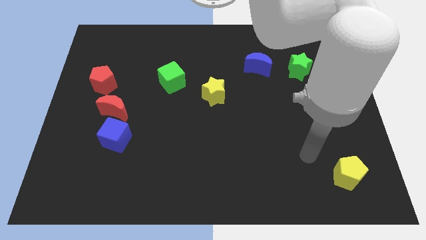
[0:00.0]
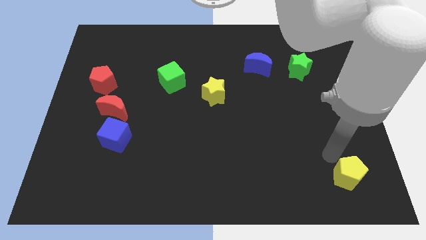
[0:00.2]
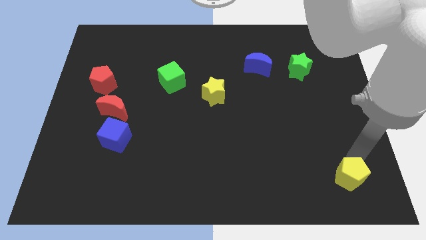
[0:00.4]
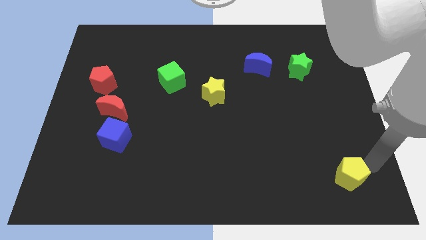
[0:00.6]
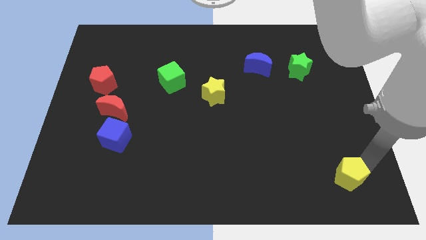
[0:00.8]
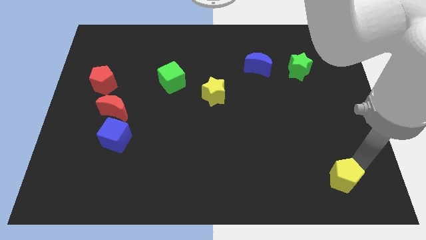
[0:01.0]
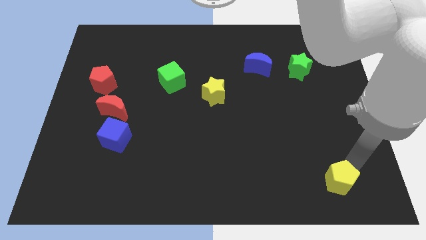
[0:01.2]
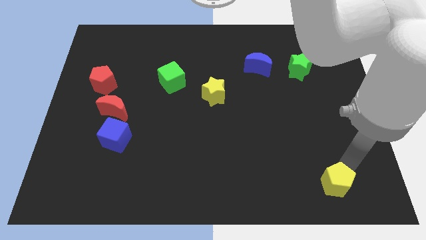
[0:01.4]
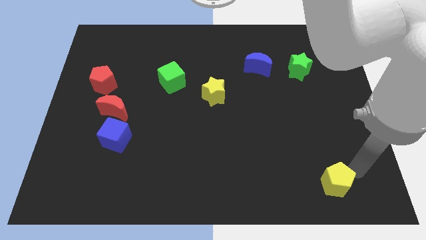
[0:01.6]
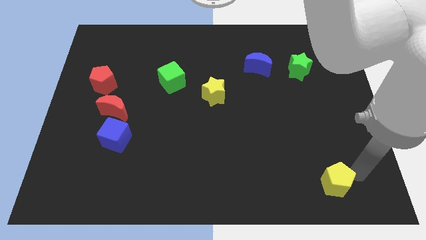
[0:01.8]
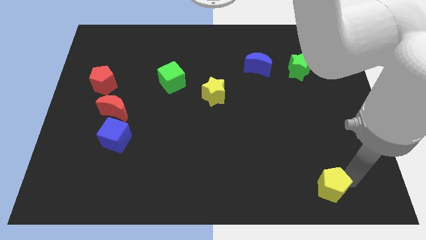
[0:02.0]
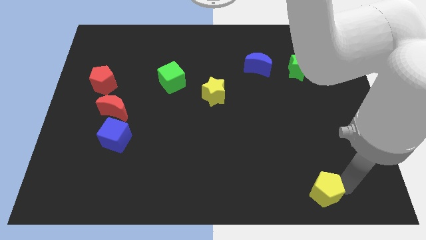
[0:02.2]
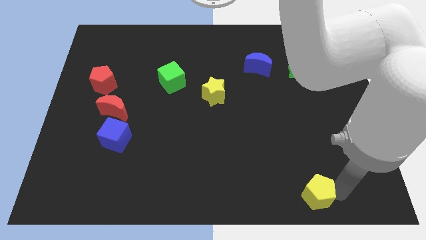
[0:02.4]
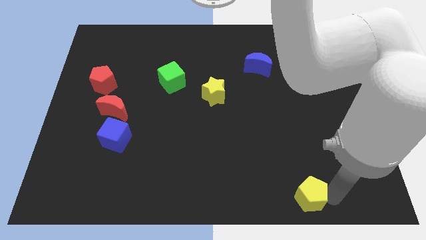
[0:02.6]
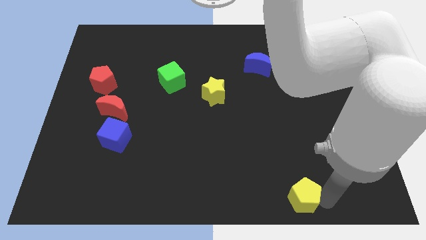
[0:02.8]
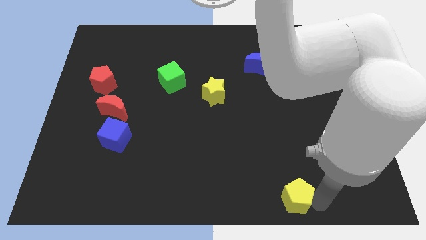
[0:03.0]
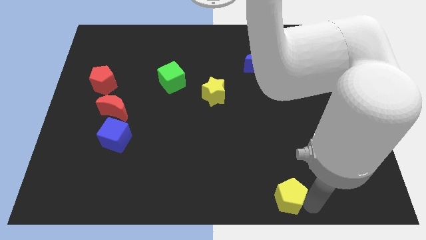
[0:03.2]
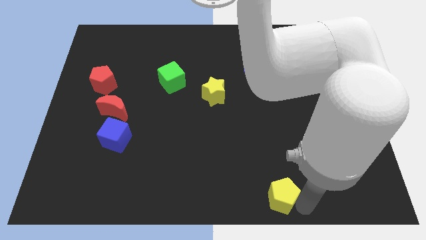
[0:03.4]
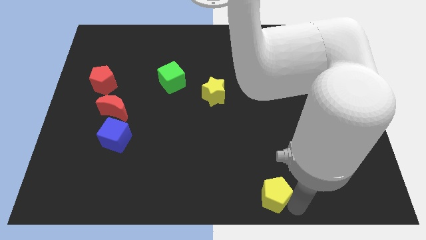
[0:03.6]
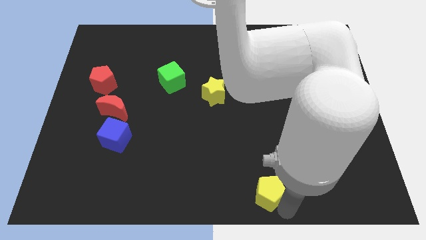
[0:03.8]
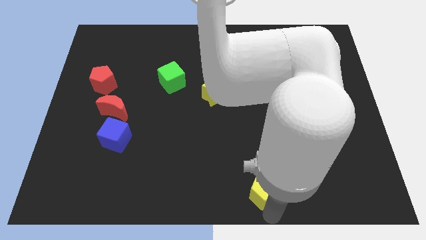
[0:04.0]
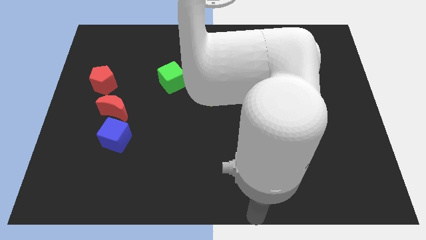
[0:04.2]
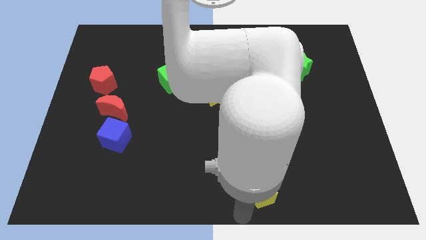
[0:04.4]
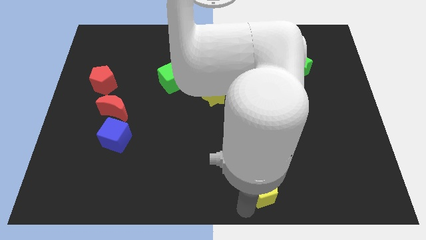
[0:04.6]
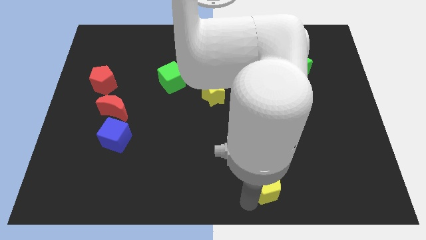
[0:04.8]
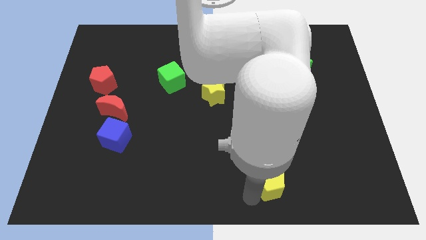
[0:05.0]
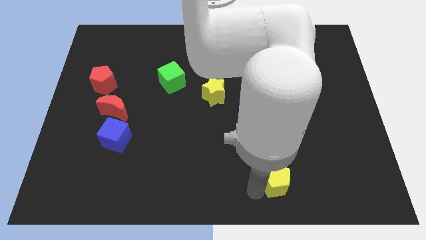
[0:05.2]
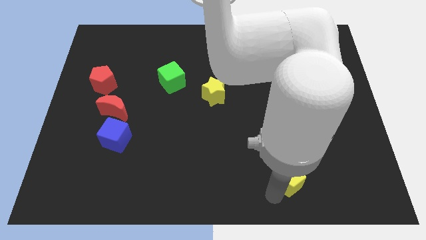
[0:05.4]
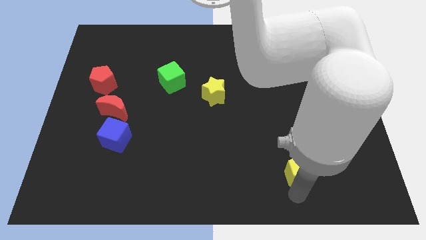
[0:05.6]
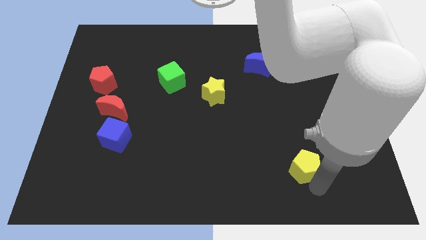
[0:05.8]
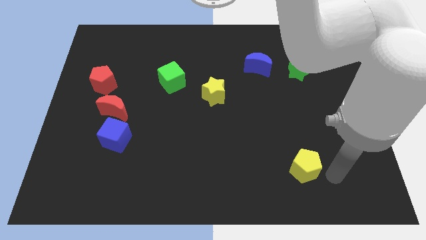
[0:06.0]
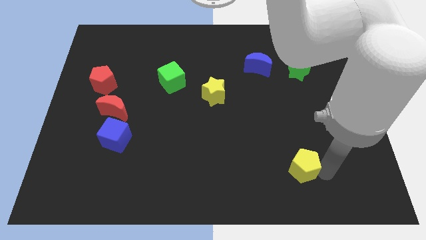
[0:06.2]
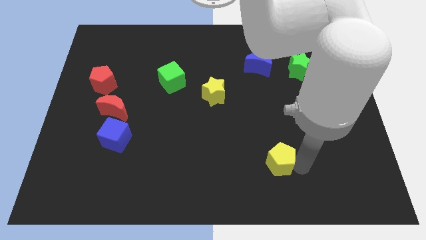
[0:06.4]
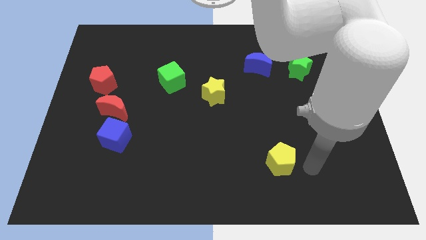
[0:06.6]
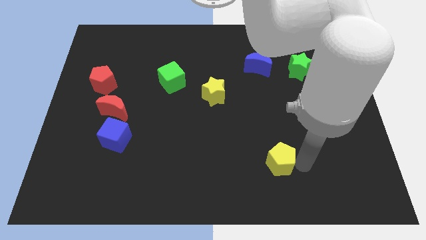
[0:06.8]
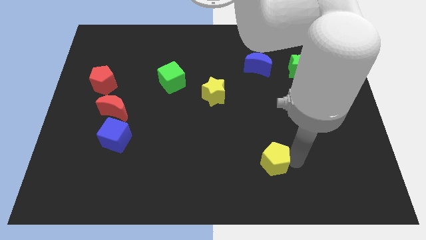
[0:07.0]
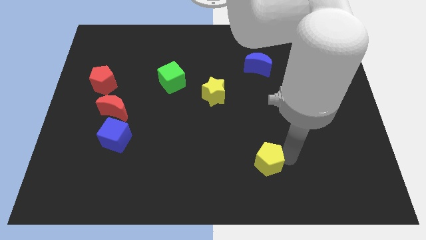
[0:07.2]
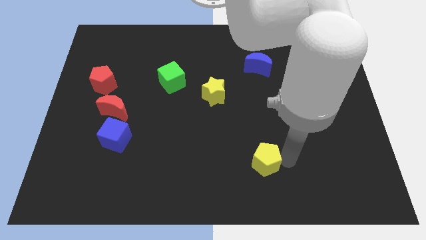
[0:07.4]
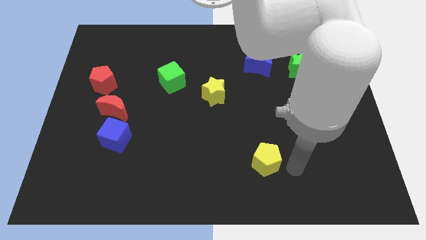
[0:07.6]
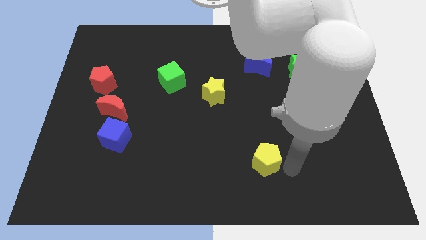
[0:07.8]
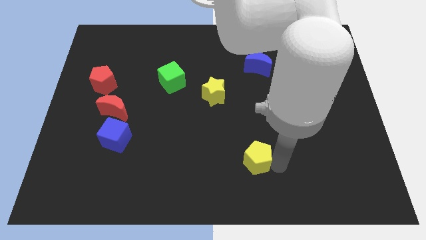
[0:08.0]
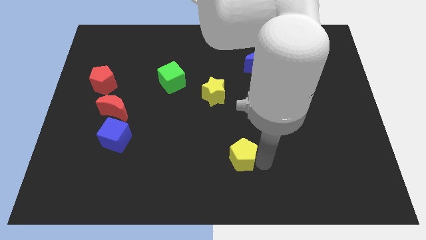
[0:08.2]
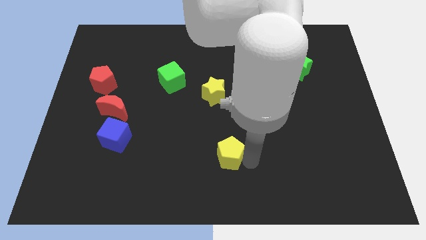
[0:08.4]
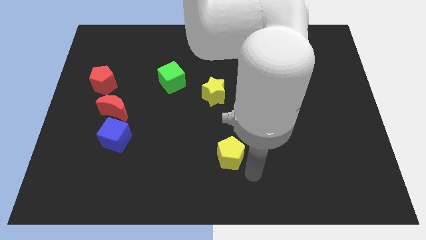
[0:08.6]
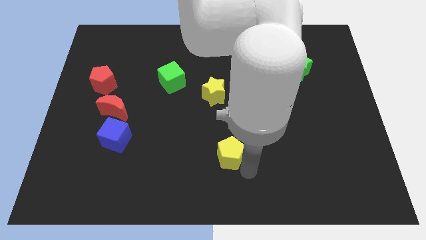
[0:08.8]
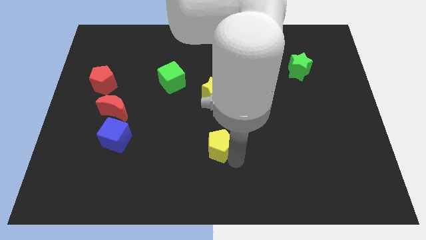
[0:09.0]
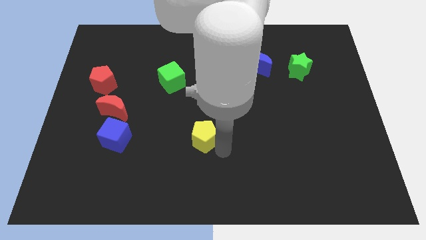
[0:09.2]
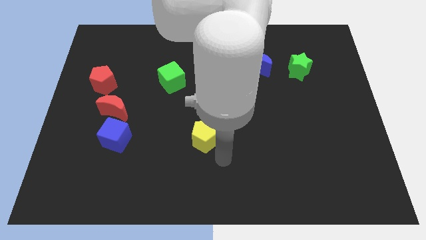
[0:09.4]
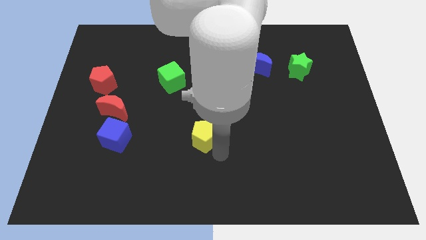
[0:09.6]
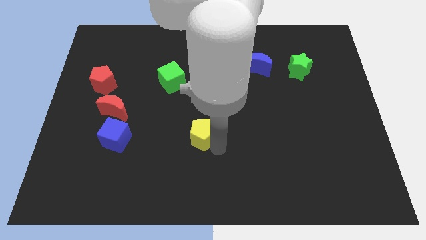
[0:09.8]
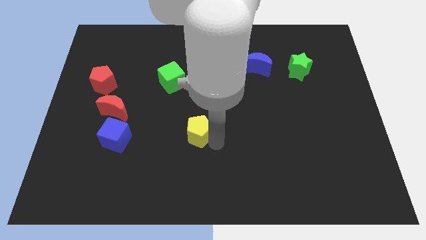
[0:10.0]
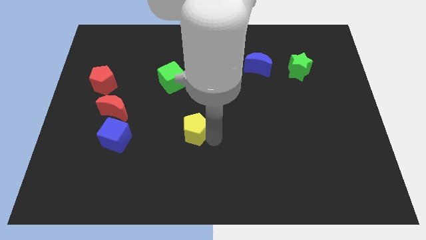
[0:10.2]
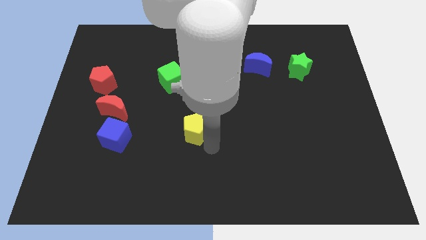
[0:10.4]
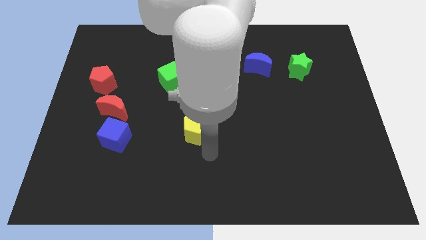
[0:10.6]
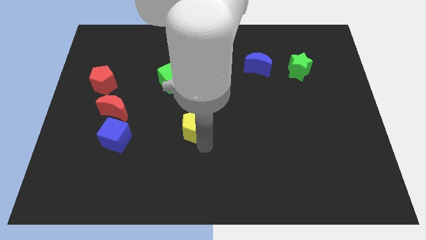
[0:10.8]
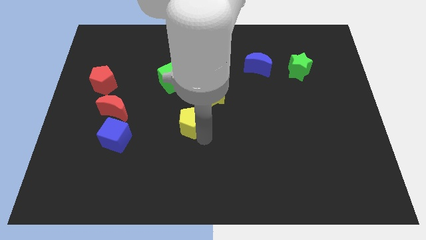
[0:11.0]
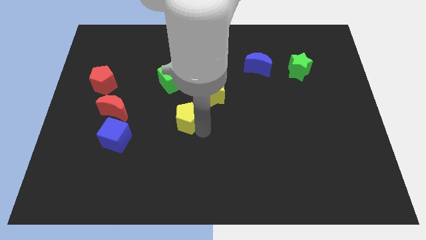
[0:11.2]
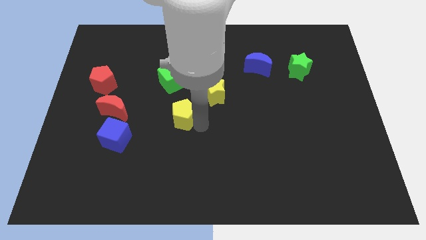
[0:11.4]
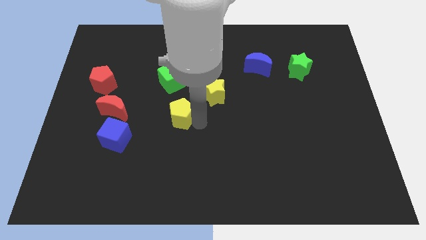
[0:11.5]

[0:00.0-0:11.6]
push the yellow pentagon just right of the red moon

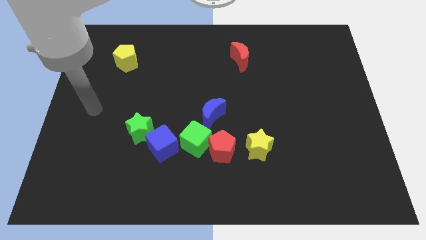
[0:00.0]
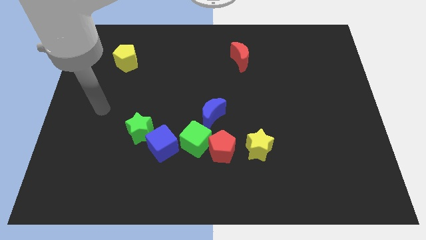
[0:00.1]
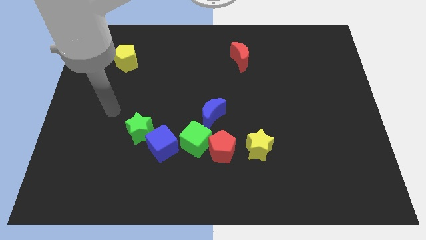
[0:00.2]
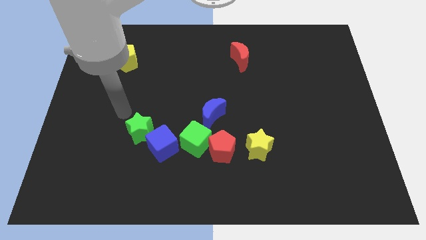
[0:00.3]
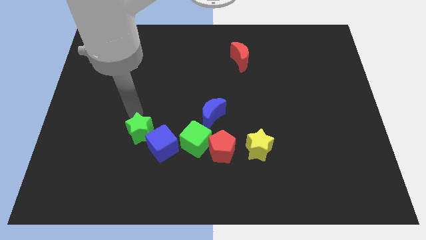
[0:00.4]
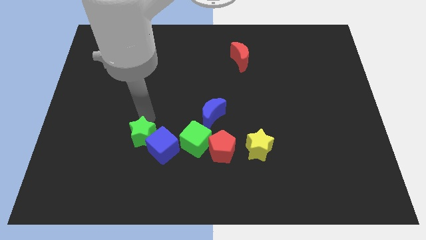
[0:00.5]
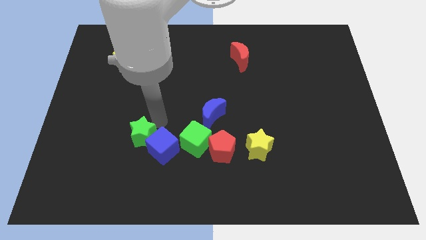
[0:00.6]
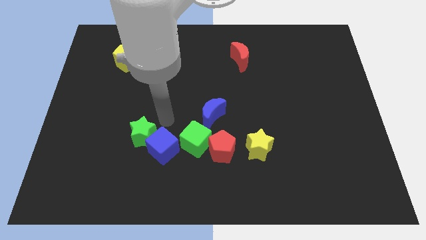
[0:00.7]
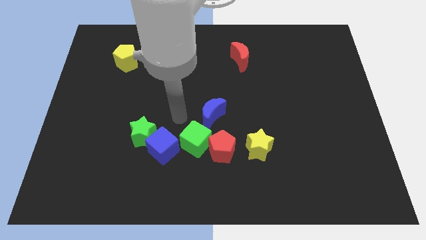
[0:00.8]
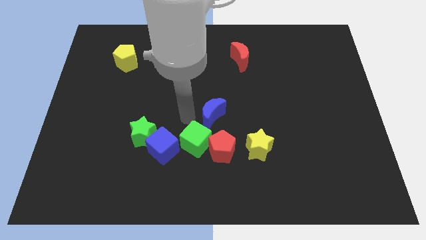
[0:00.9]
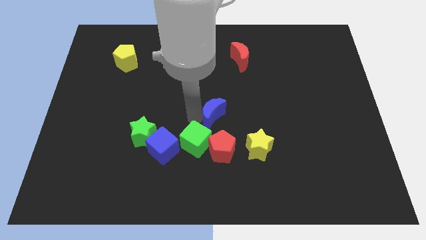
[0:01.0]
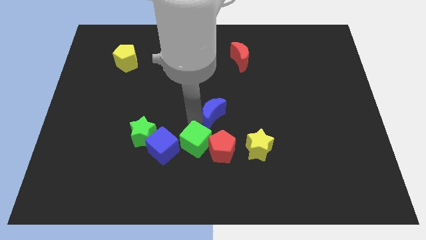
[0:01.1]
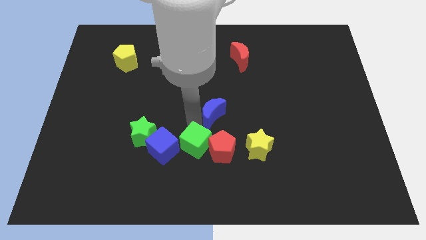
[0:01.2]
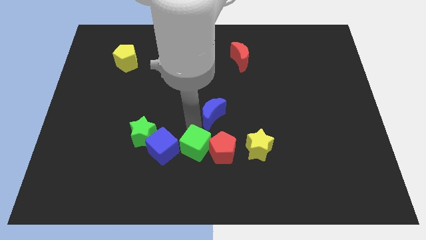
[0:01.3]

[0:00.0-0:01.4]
slide the green cube diagonally down and to the left of the red pentagon
